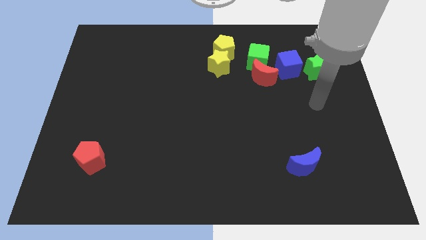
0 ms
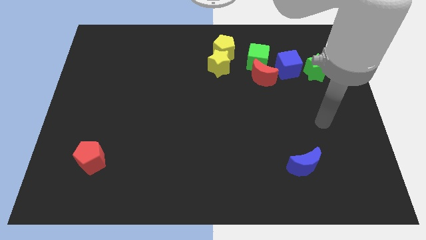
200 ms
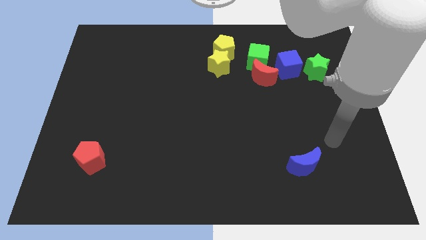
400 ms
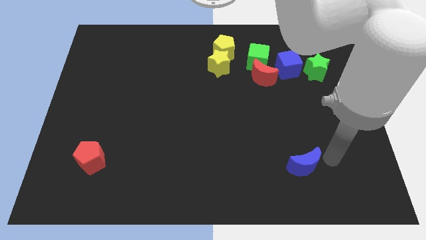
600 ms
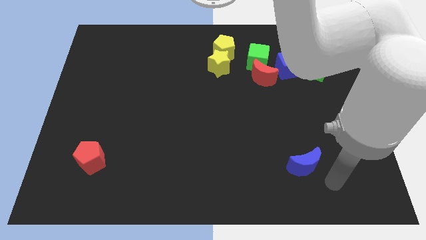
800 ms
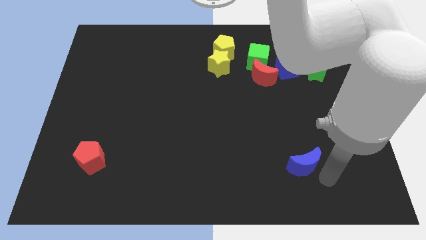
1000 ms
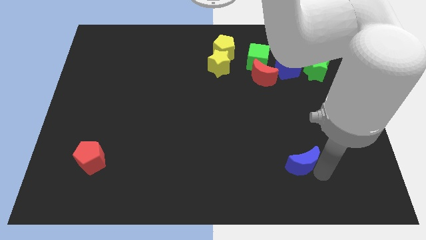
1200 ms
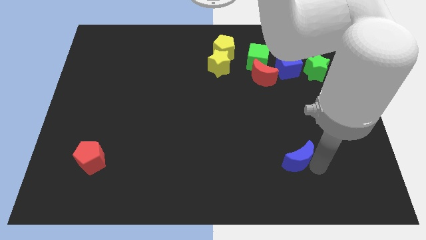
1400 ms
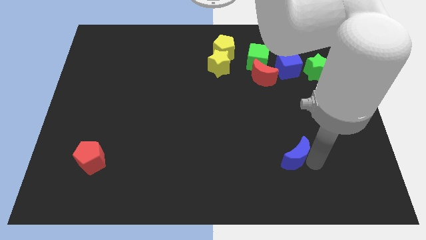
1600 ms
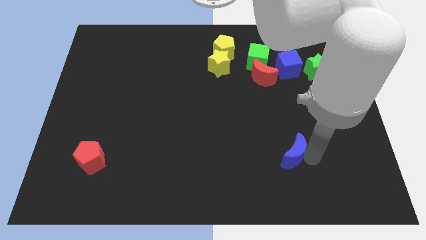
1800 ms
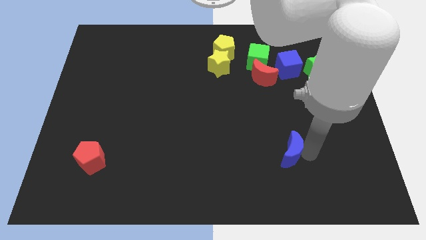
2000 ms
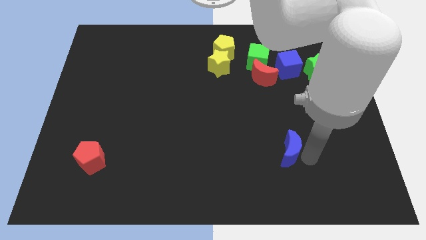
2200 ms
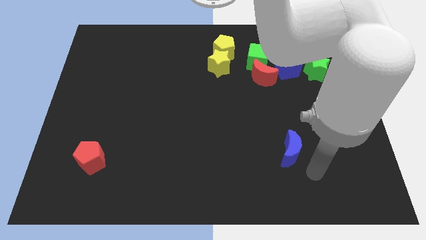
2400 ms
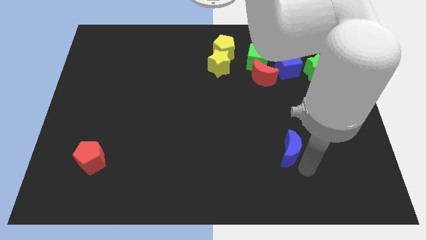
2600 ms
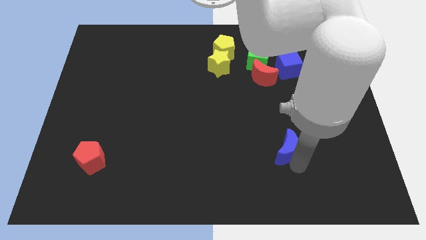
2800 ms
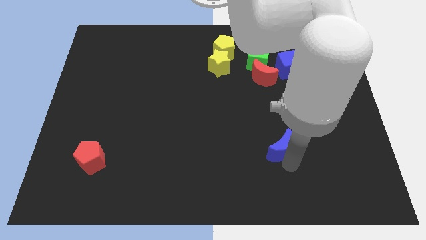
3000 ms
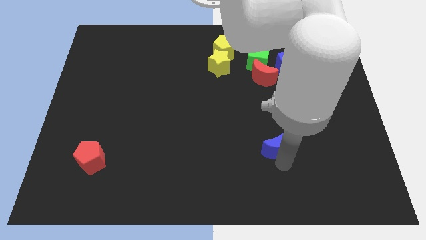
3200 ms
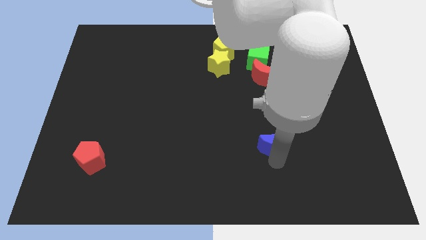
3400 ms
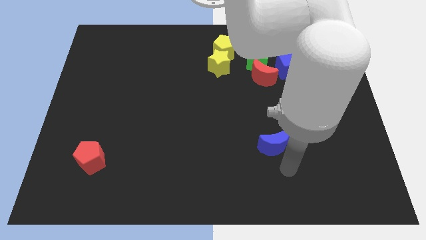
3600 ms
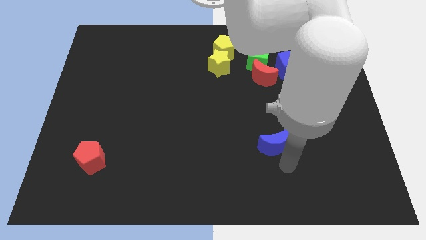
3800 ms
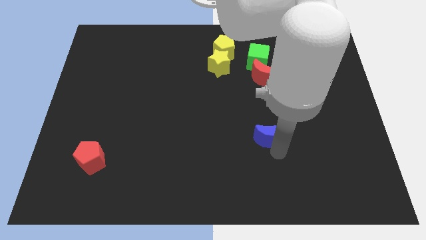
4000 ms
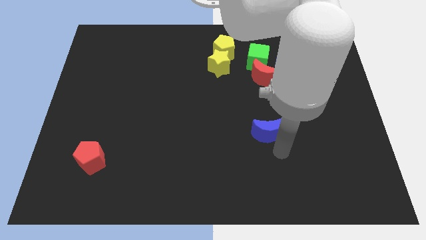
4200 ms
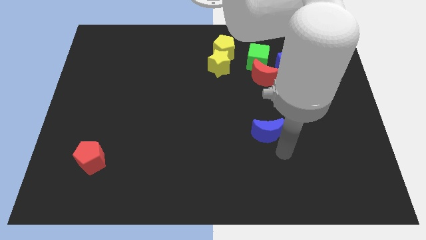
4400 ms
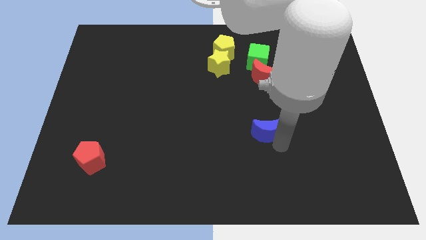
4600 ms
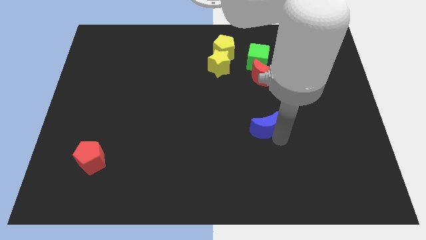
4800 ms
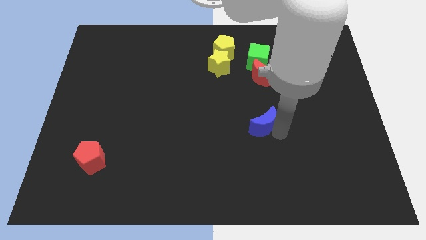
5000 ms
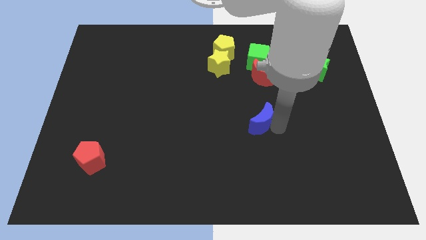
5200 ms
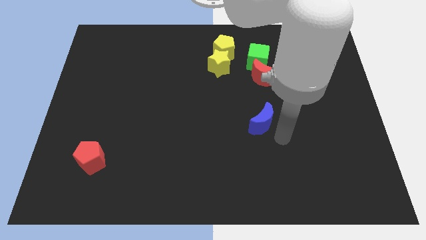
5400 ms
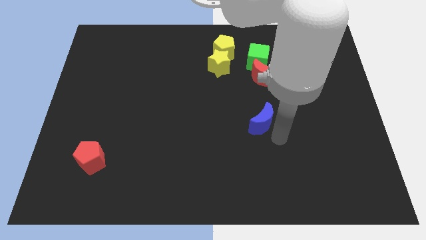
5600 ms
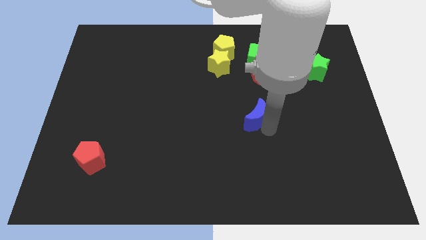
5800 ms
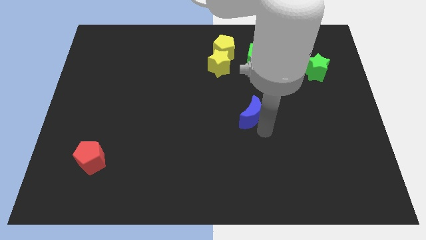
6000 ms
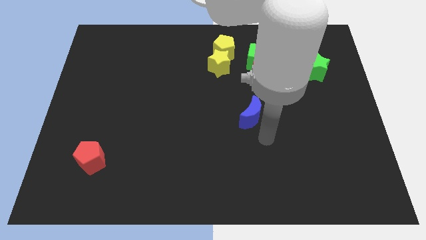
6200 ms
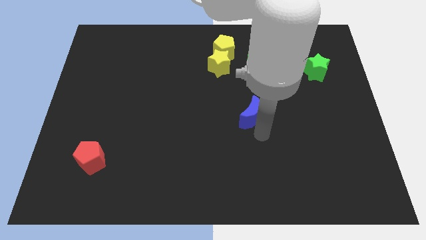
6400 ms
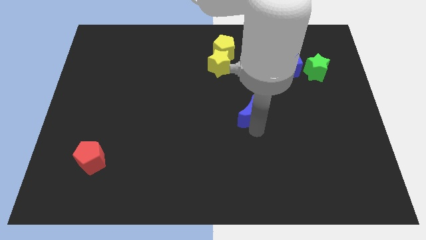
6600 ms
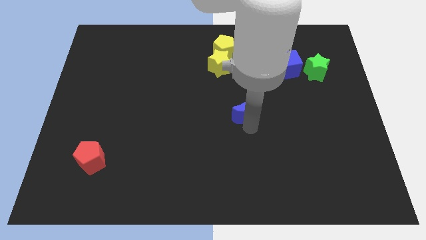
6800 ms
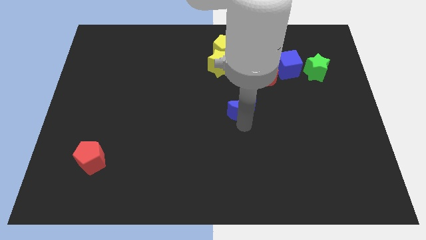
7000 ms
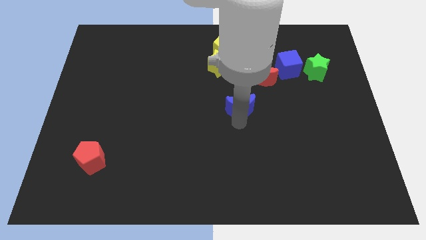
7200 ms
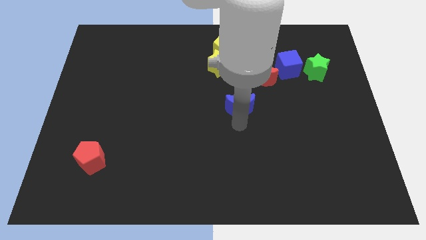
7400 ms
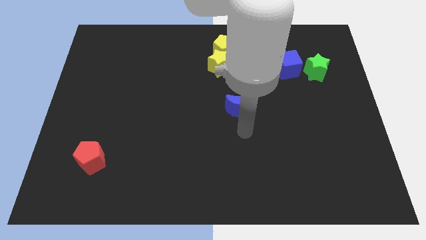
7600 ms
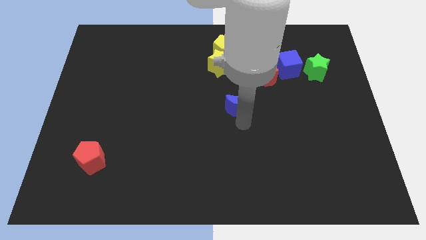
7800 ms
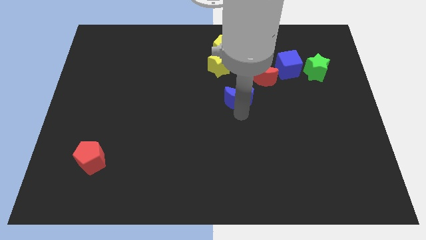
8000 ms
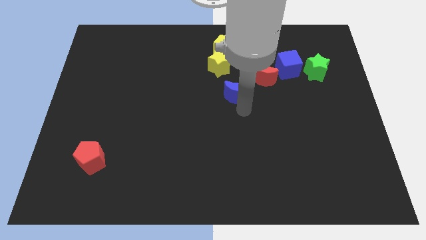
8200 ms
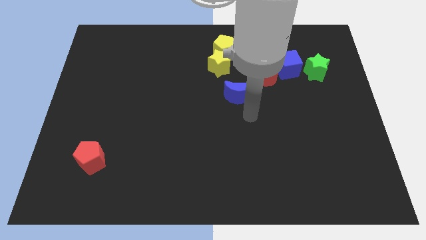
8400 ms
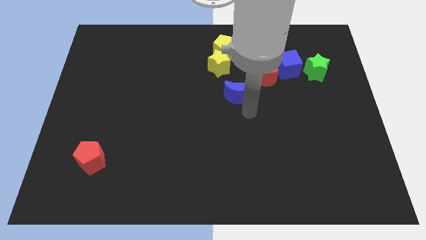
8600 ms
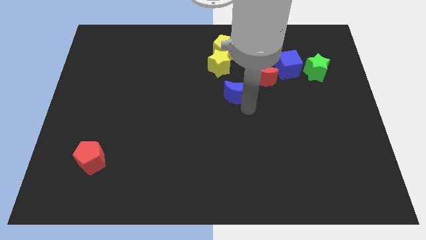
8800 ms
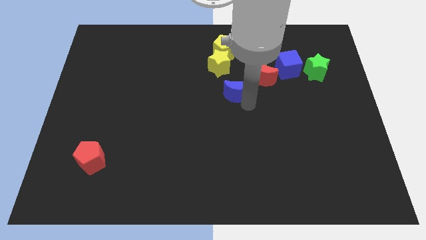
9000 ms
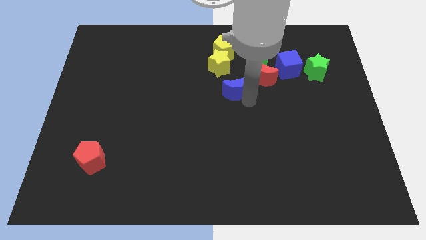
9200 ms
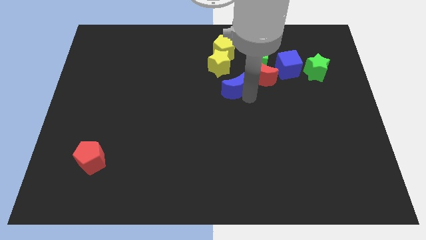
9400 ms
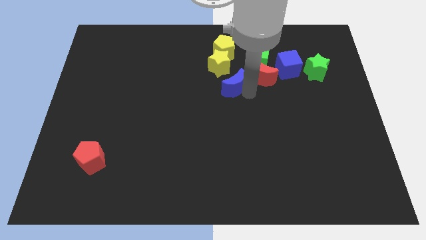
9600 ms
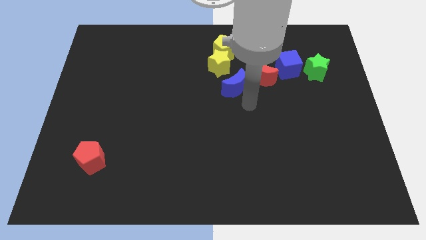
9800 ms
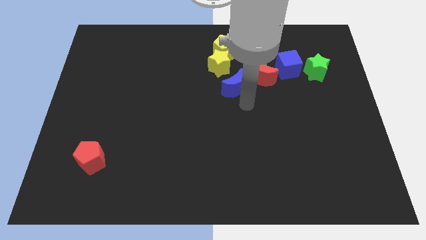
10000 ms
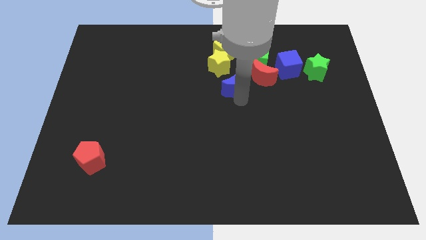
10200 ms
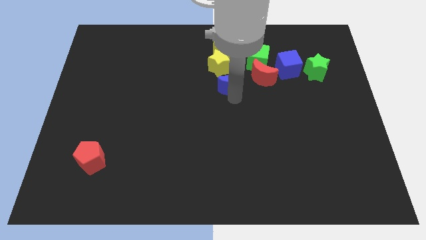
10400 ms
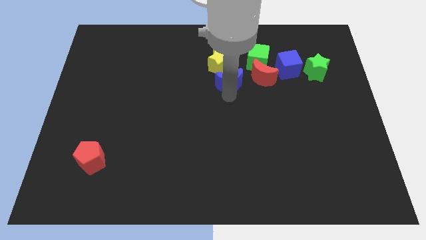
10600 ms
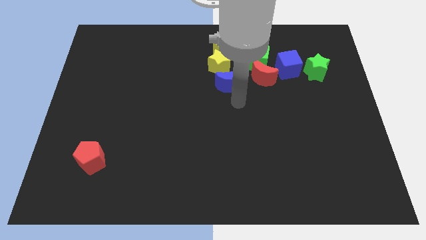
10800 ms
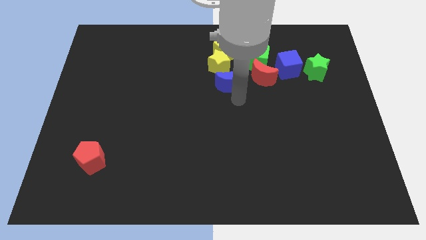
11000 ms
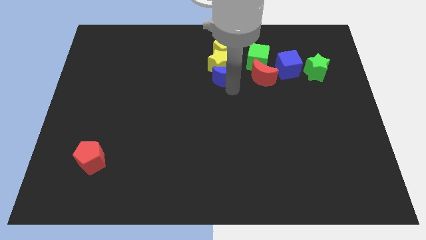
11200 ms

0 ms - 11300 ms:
put the blue moon close to the yellow star
